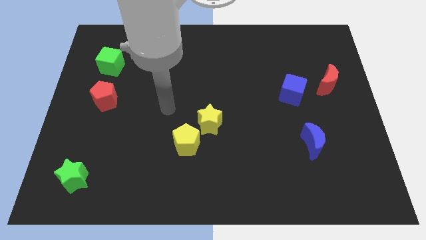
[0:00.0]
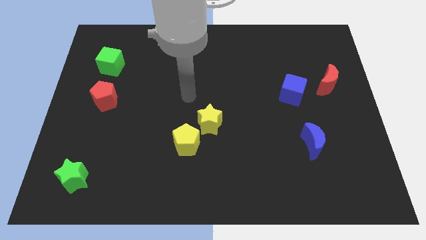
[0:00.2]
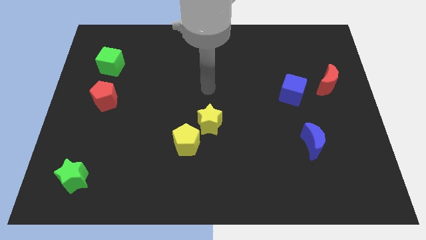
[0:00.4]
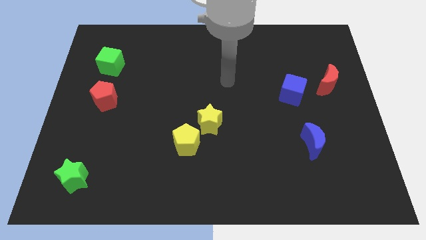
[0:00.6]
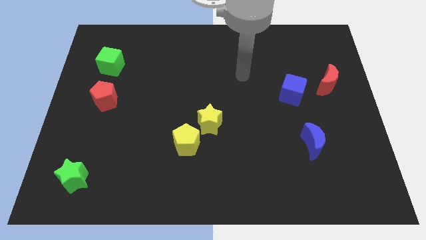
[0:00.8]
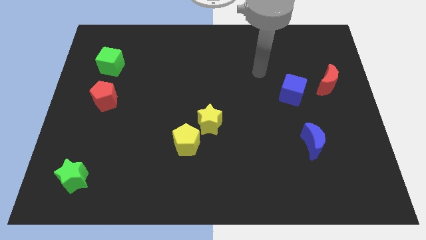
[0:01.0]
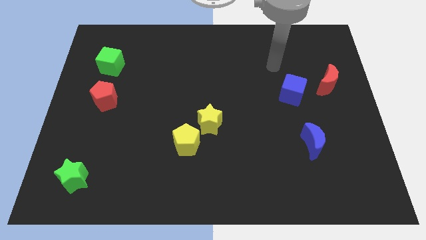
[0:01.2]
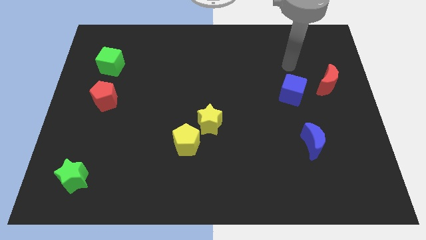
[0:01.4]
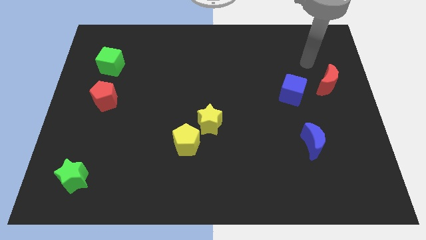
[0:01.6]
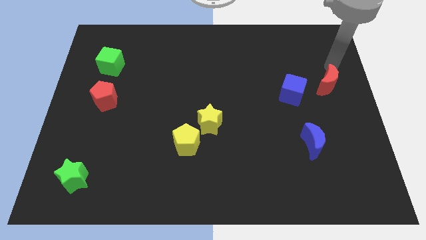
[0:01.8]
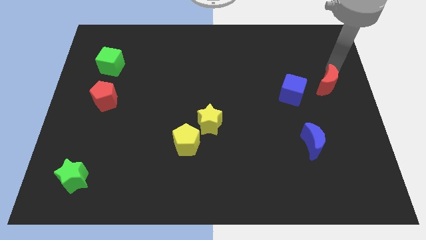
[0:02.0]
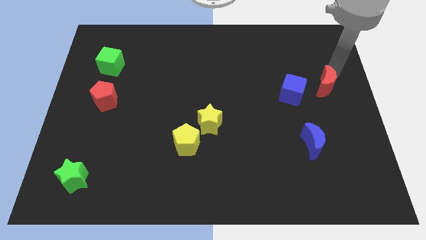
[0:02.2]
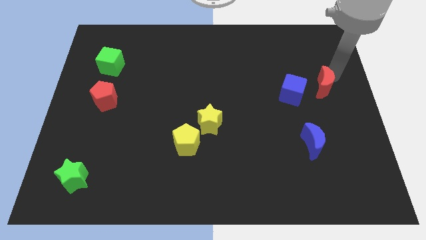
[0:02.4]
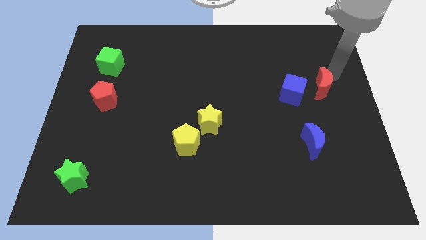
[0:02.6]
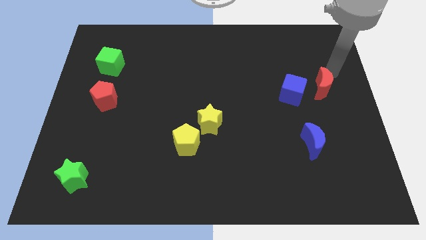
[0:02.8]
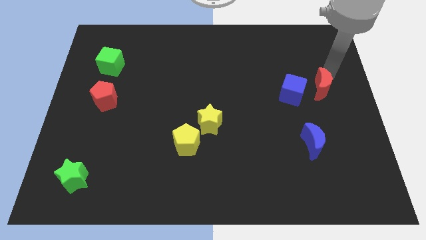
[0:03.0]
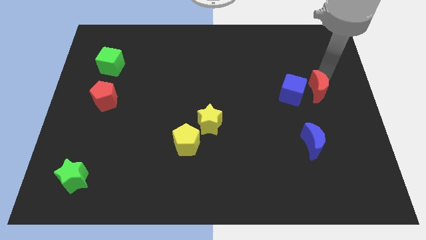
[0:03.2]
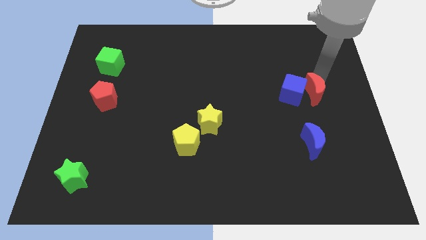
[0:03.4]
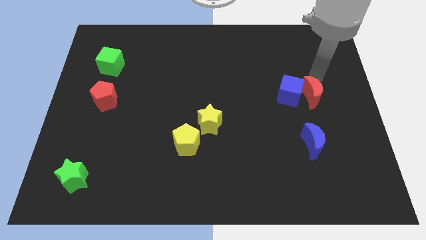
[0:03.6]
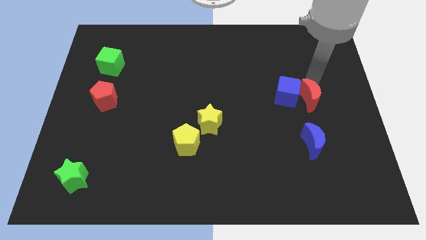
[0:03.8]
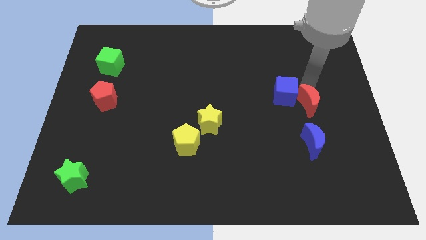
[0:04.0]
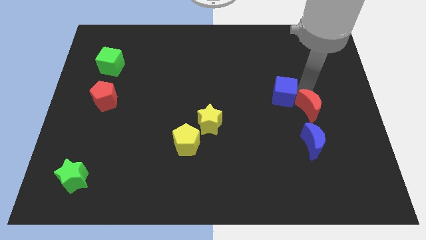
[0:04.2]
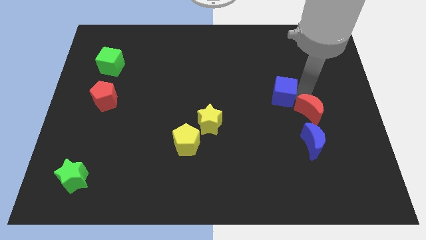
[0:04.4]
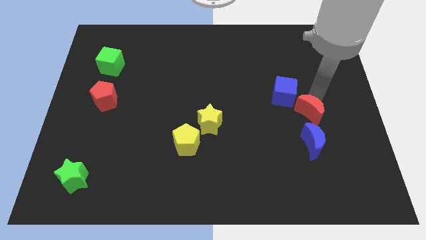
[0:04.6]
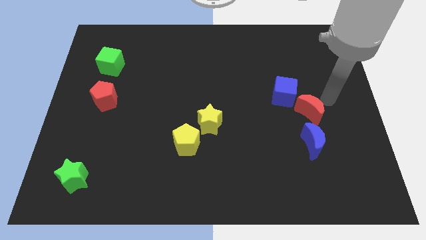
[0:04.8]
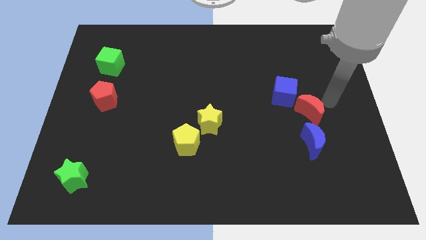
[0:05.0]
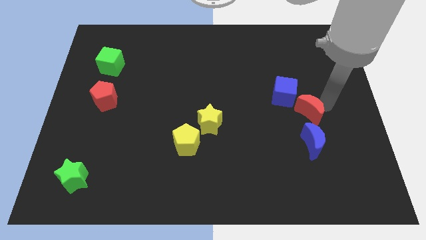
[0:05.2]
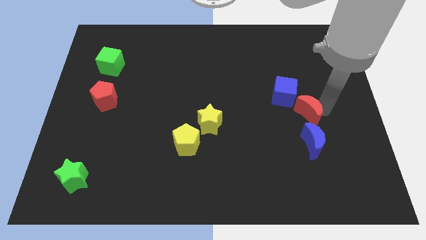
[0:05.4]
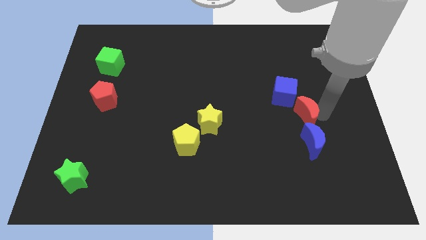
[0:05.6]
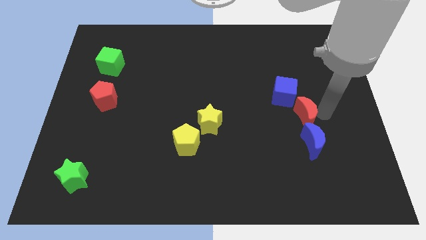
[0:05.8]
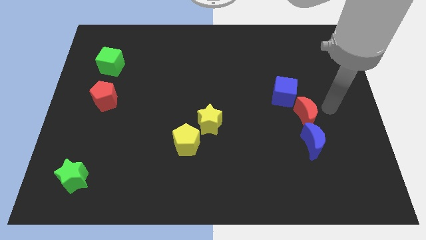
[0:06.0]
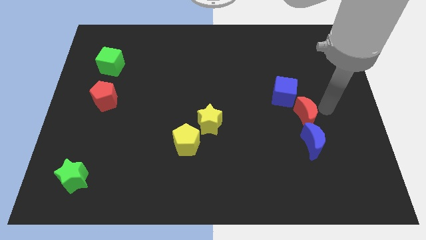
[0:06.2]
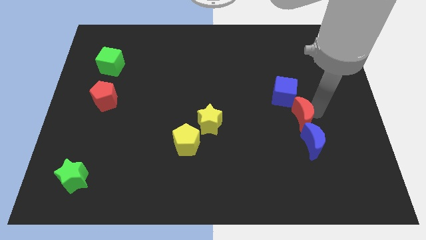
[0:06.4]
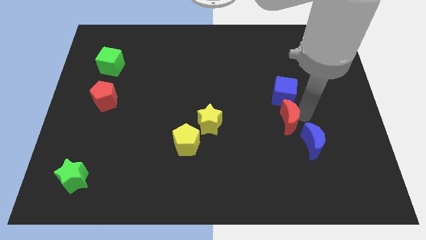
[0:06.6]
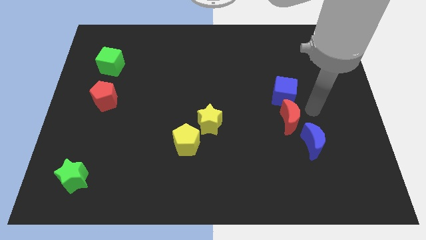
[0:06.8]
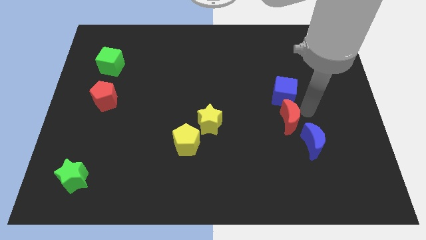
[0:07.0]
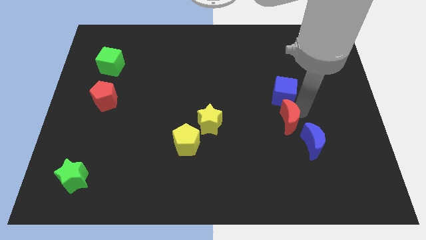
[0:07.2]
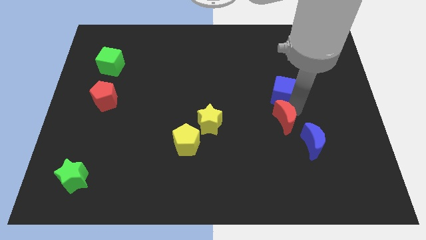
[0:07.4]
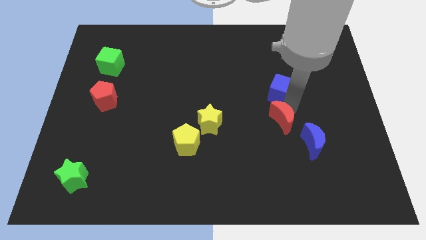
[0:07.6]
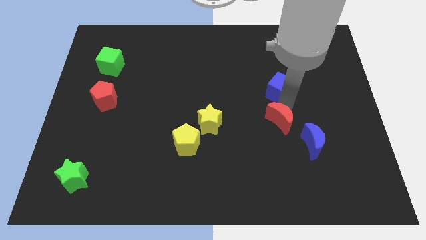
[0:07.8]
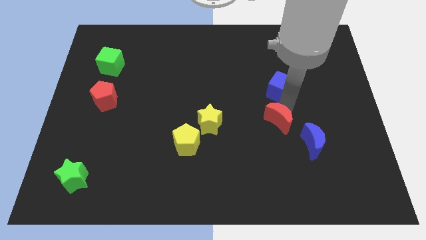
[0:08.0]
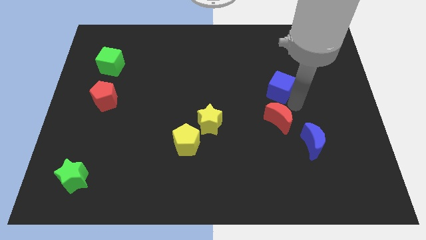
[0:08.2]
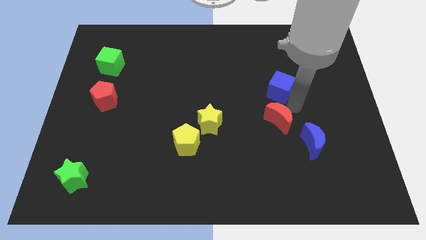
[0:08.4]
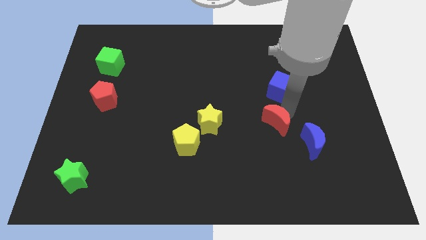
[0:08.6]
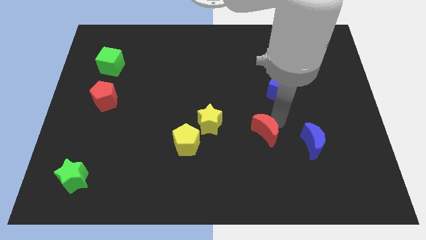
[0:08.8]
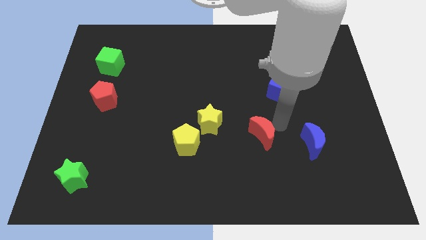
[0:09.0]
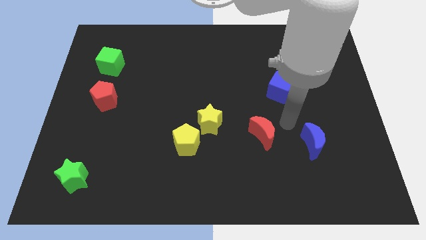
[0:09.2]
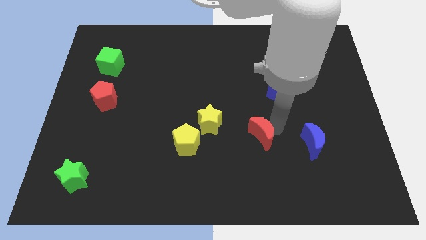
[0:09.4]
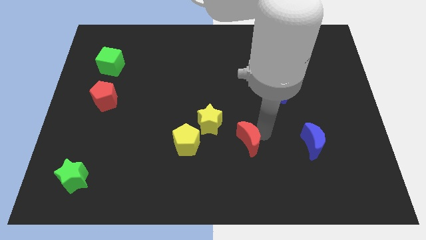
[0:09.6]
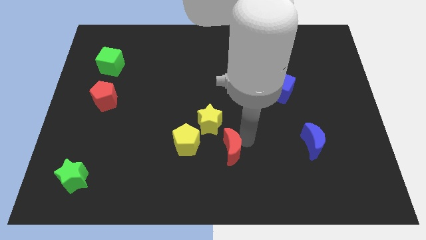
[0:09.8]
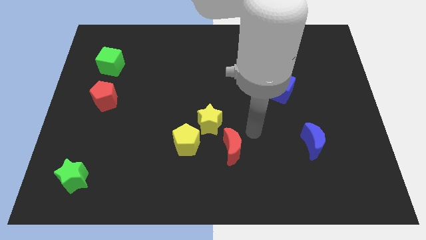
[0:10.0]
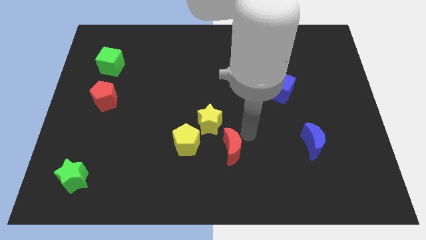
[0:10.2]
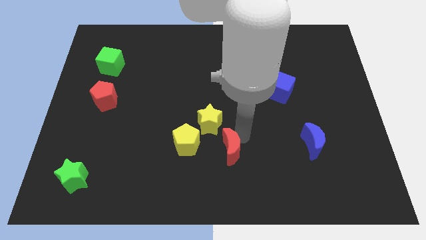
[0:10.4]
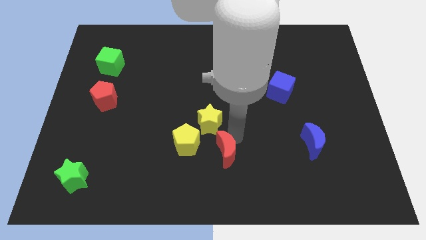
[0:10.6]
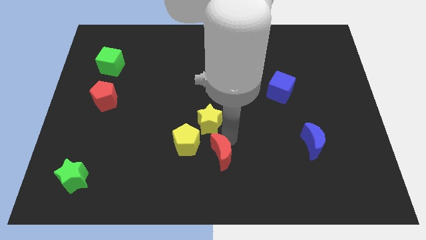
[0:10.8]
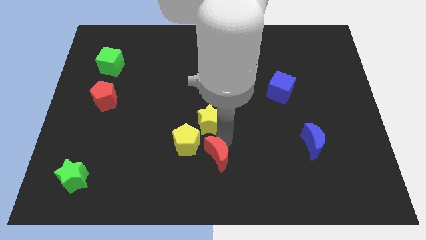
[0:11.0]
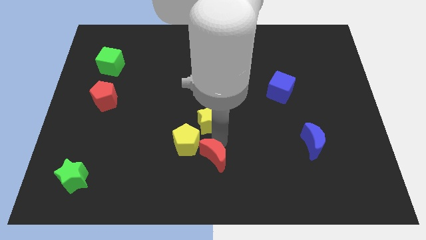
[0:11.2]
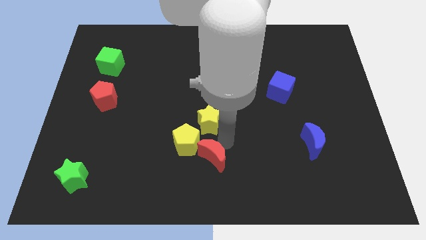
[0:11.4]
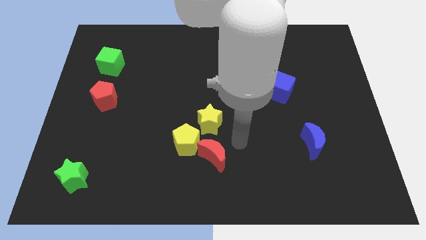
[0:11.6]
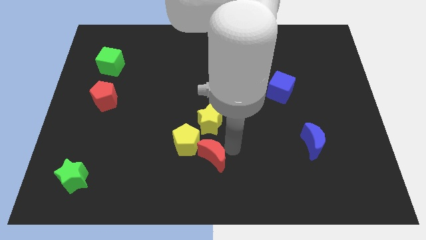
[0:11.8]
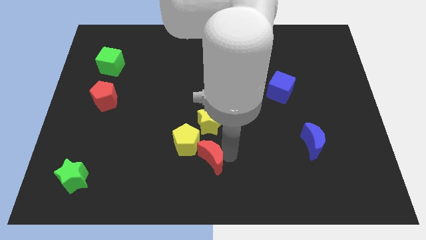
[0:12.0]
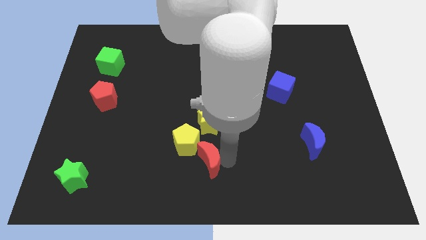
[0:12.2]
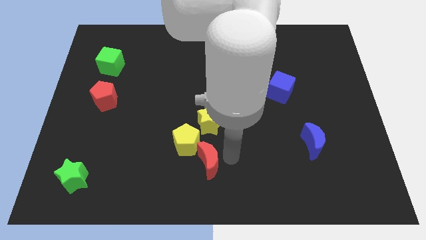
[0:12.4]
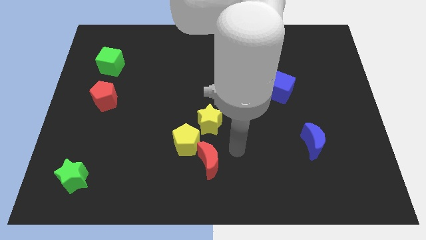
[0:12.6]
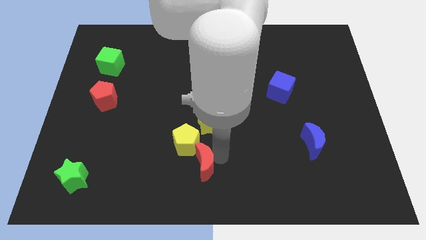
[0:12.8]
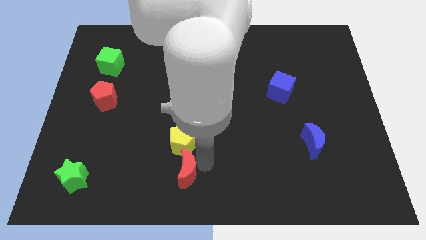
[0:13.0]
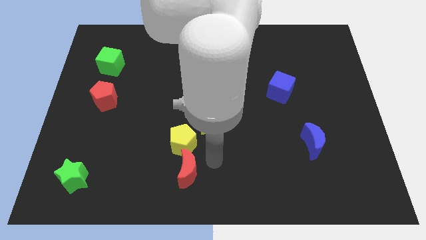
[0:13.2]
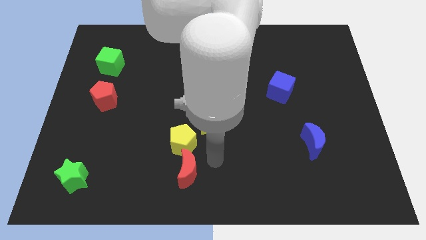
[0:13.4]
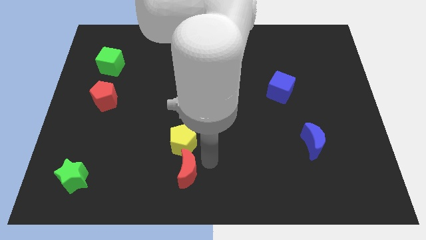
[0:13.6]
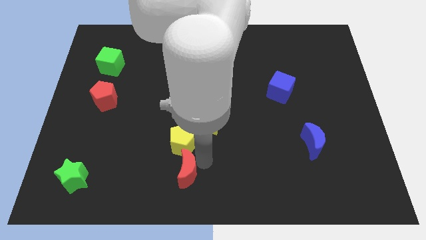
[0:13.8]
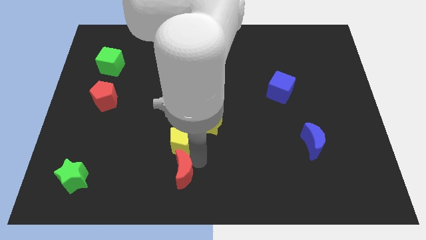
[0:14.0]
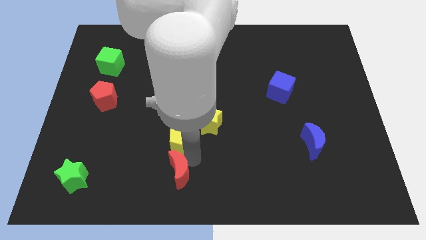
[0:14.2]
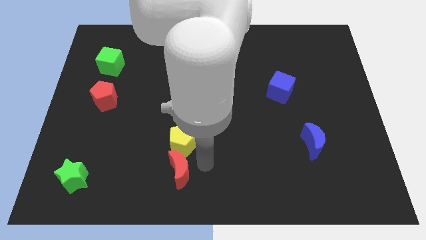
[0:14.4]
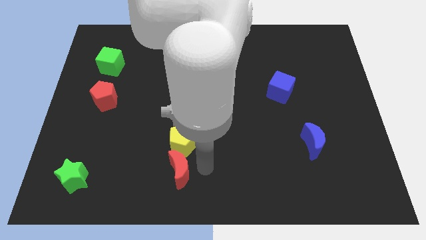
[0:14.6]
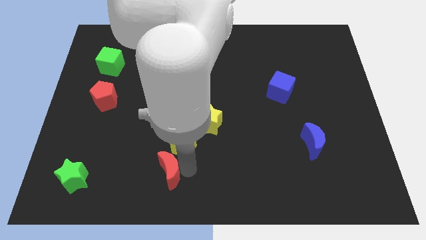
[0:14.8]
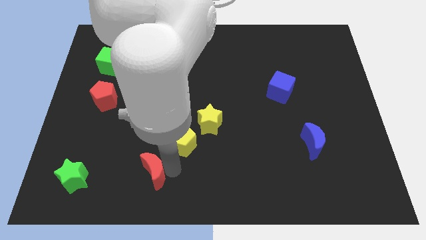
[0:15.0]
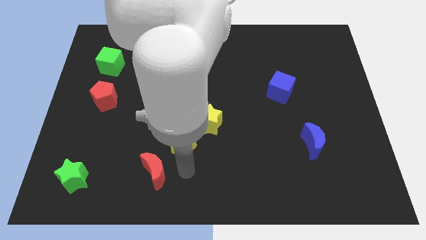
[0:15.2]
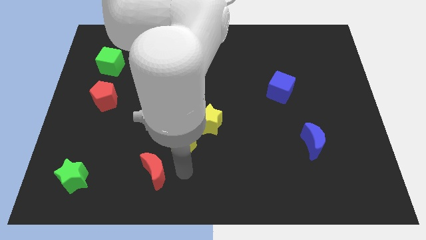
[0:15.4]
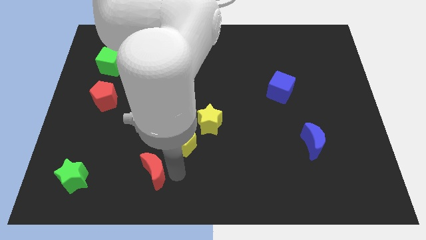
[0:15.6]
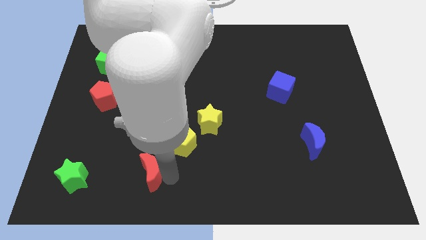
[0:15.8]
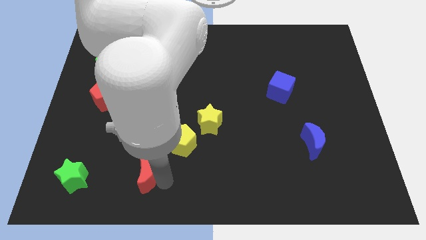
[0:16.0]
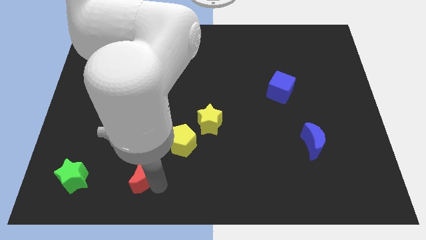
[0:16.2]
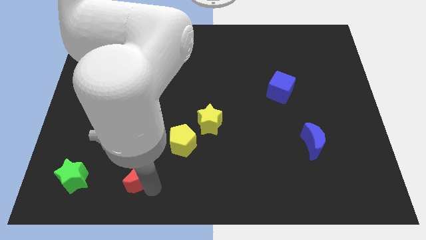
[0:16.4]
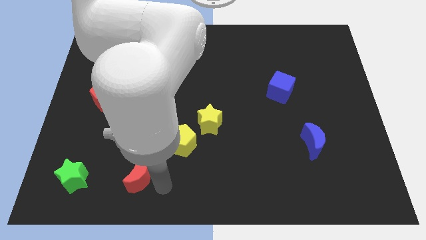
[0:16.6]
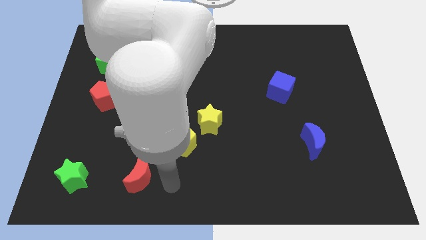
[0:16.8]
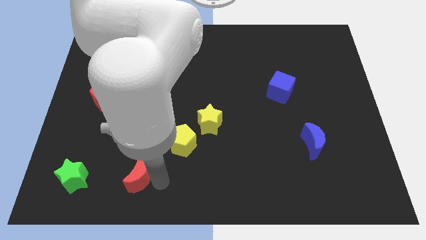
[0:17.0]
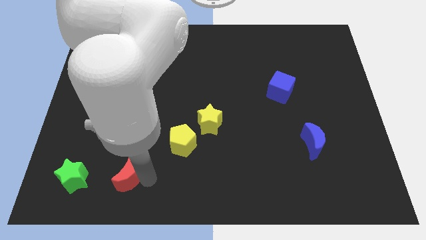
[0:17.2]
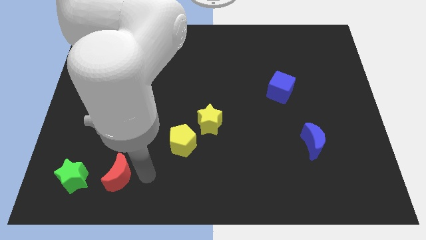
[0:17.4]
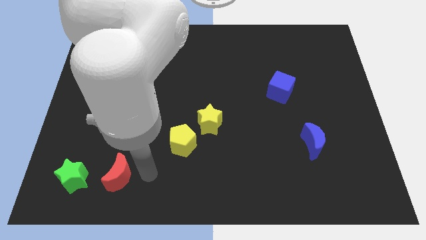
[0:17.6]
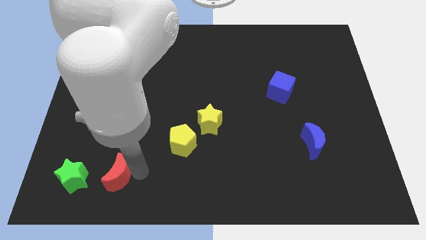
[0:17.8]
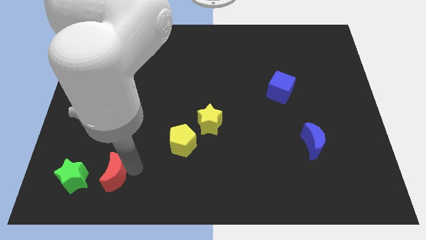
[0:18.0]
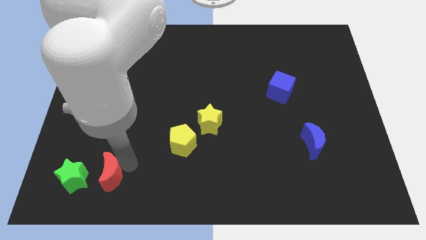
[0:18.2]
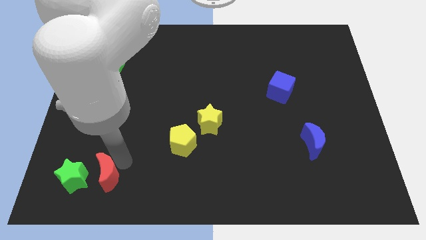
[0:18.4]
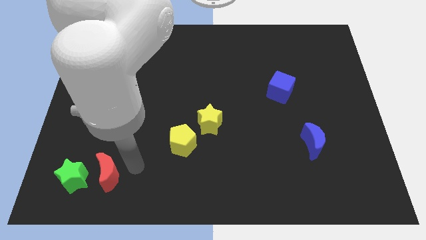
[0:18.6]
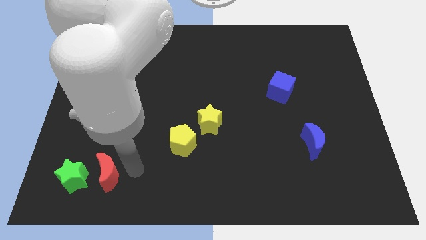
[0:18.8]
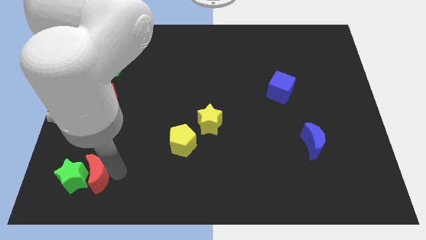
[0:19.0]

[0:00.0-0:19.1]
slide the red moon next to the green star
